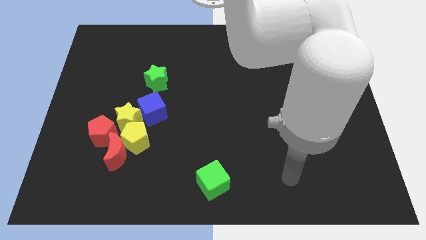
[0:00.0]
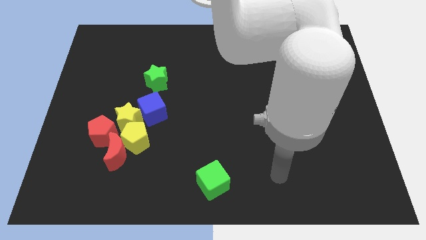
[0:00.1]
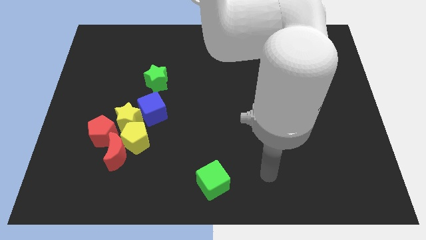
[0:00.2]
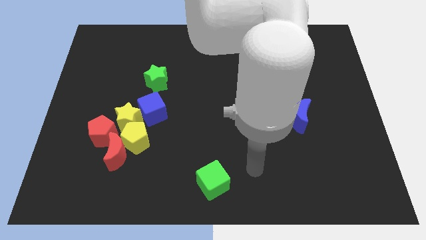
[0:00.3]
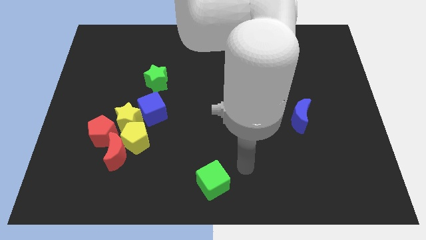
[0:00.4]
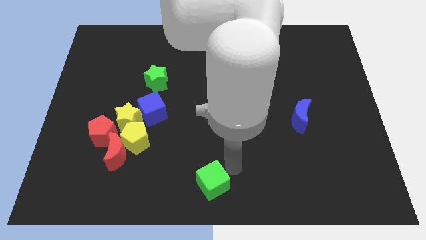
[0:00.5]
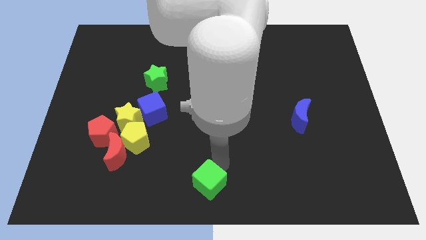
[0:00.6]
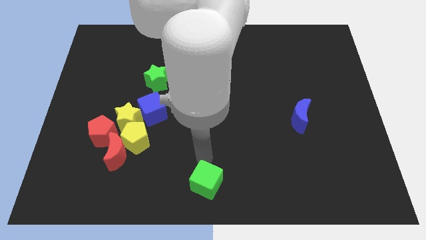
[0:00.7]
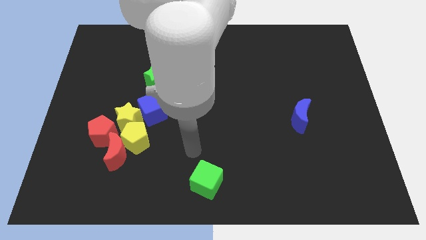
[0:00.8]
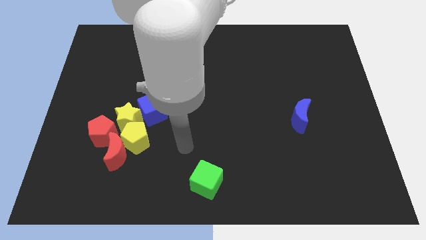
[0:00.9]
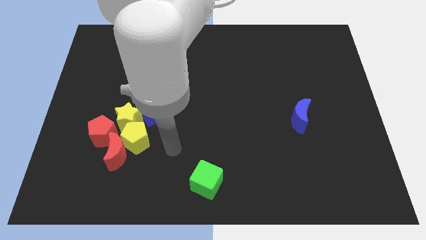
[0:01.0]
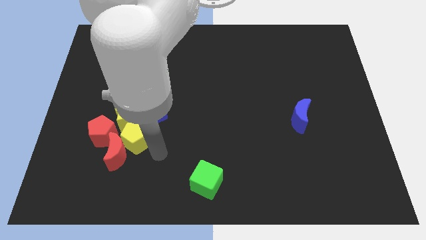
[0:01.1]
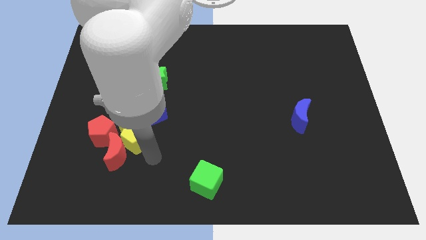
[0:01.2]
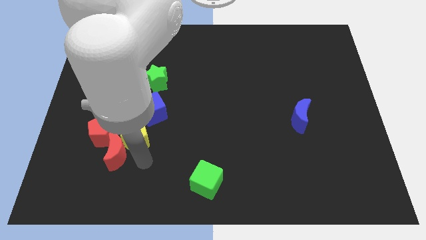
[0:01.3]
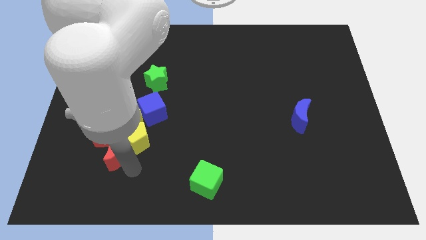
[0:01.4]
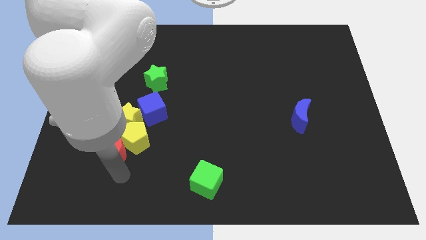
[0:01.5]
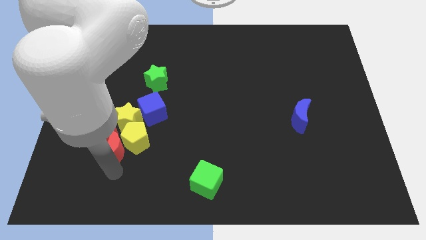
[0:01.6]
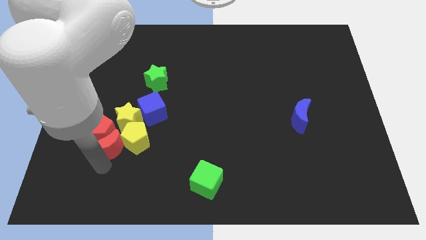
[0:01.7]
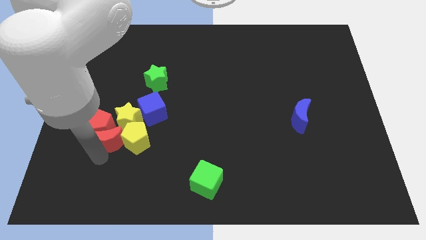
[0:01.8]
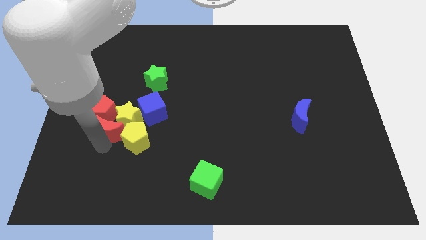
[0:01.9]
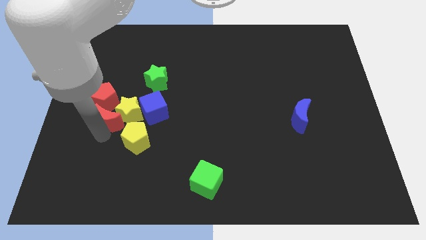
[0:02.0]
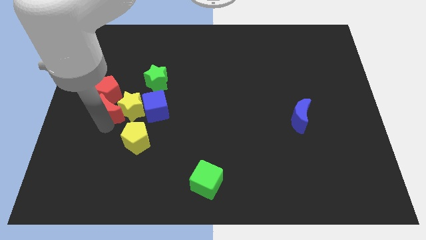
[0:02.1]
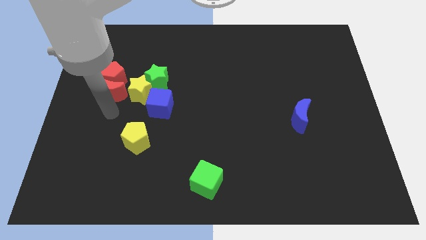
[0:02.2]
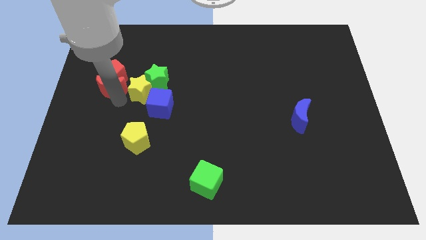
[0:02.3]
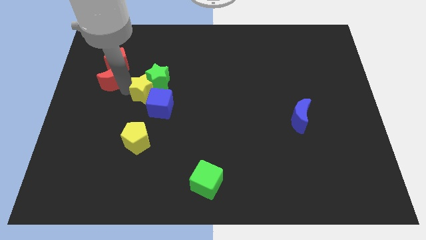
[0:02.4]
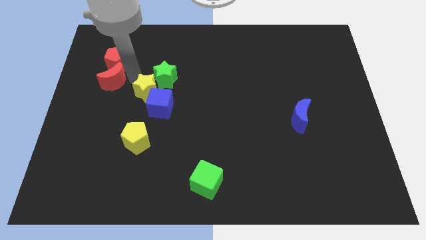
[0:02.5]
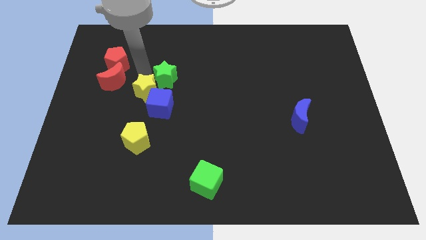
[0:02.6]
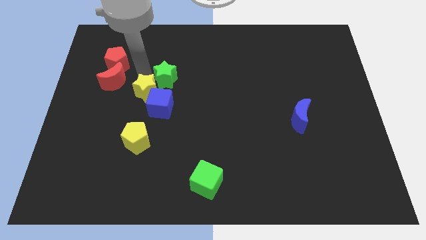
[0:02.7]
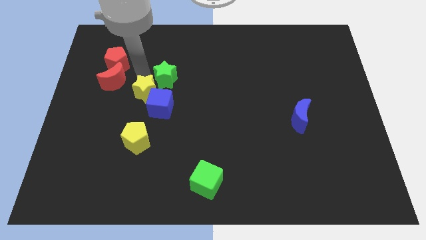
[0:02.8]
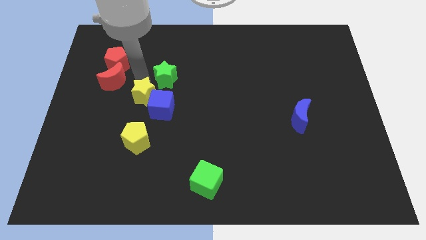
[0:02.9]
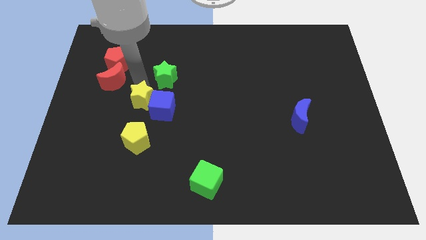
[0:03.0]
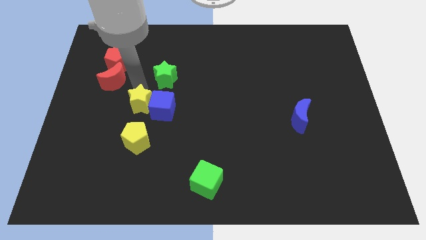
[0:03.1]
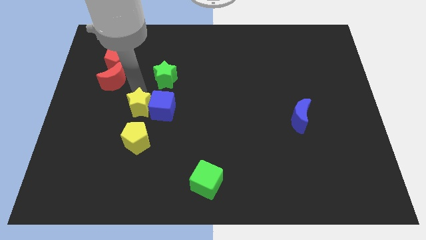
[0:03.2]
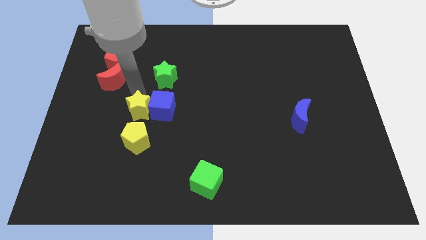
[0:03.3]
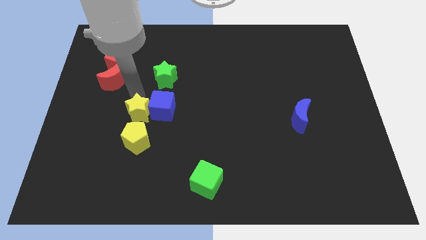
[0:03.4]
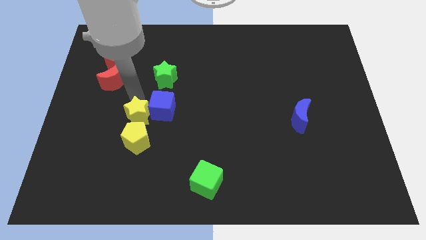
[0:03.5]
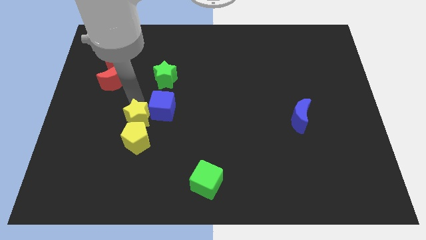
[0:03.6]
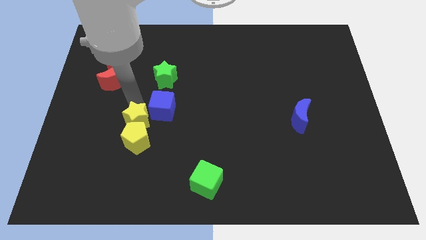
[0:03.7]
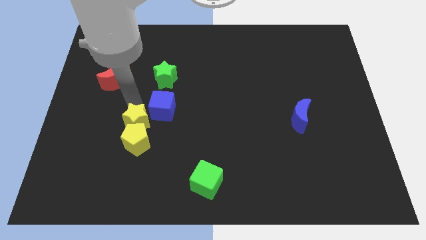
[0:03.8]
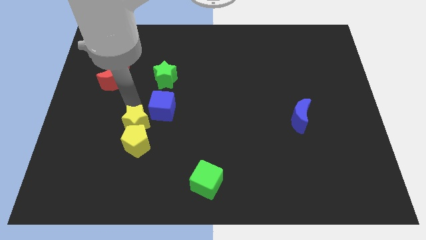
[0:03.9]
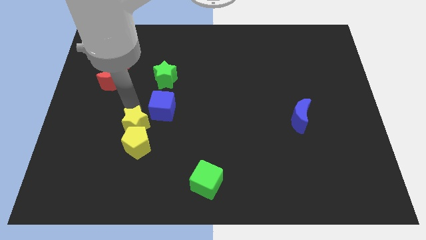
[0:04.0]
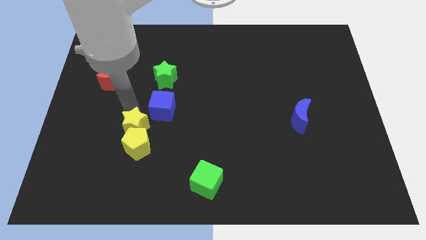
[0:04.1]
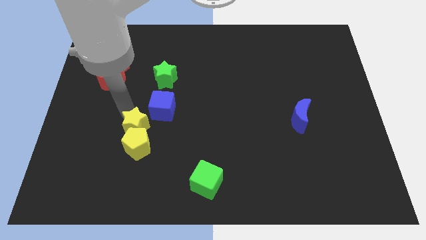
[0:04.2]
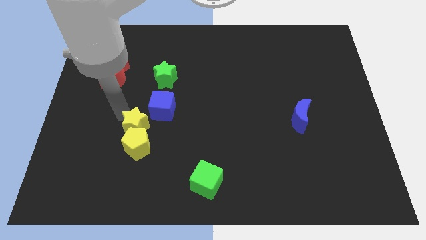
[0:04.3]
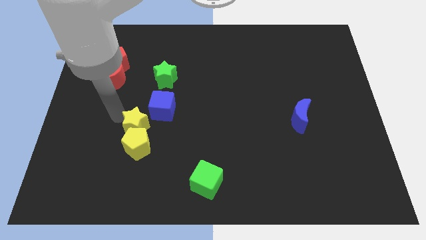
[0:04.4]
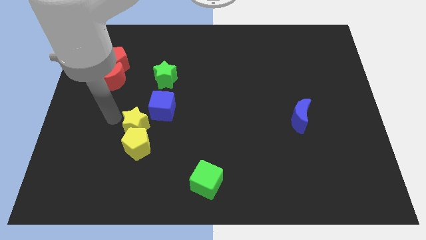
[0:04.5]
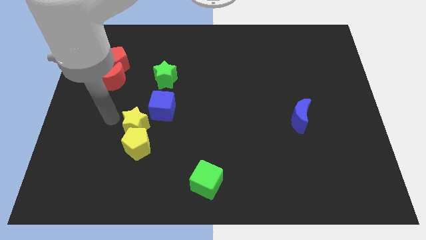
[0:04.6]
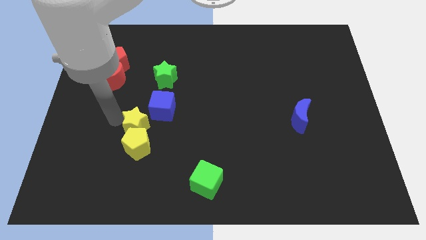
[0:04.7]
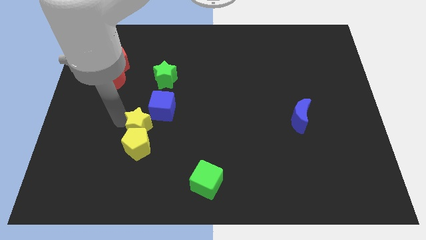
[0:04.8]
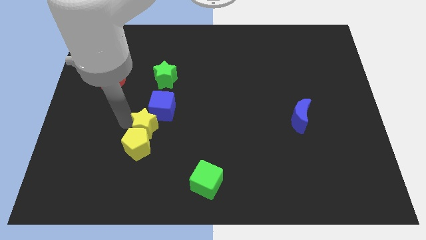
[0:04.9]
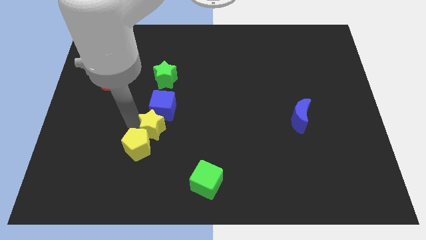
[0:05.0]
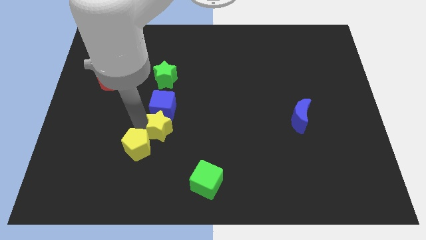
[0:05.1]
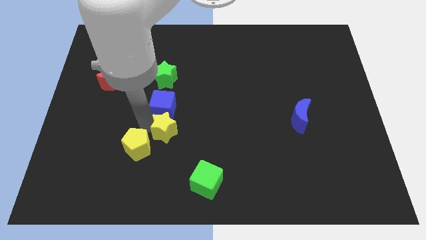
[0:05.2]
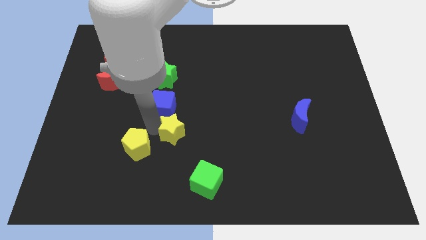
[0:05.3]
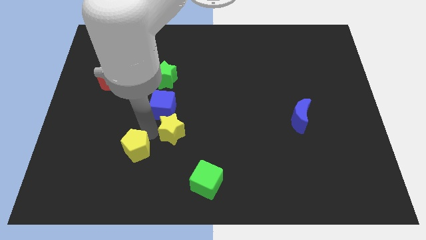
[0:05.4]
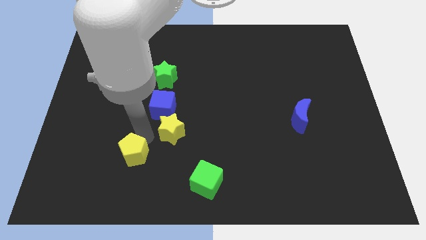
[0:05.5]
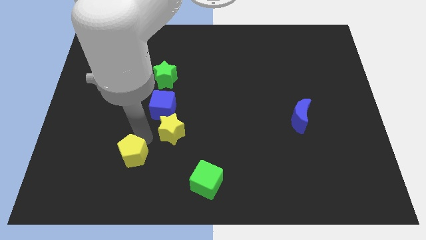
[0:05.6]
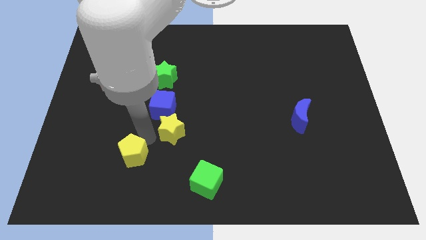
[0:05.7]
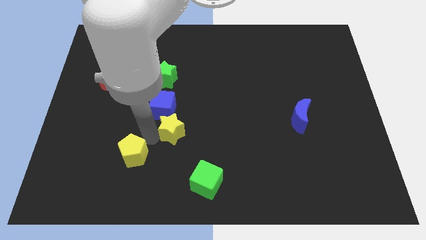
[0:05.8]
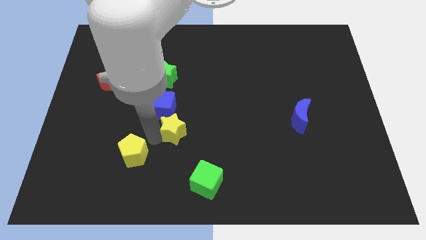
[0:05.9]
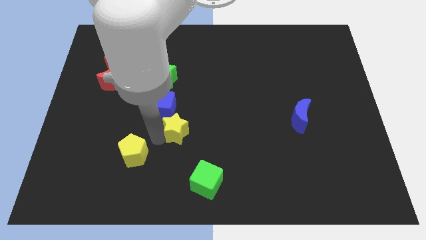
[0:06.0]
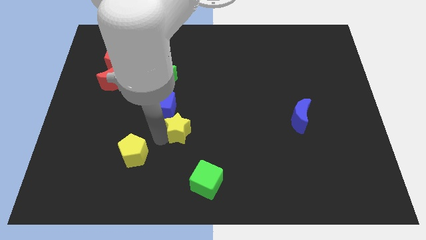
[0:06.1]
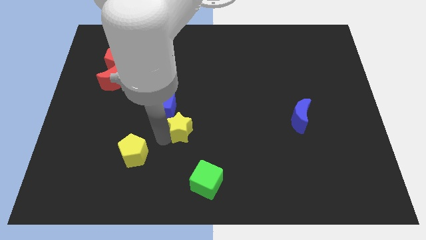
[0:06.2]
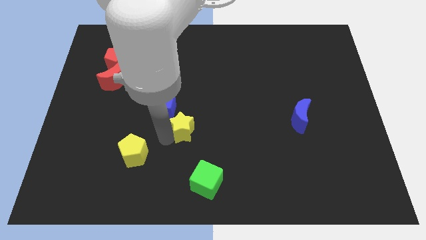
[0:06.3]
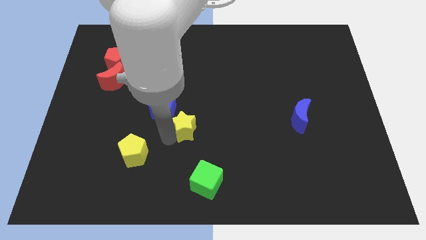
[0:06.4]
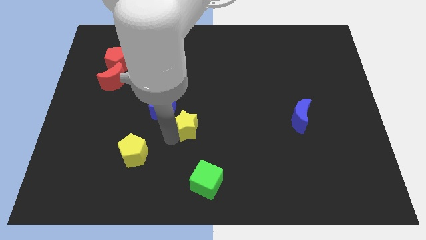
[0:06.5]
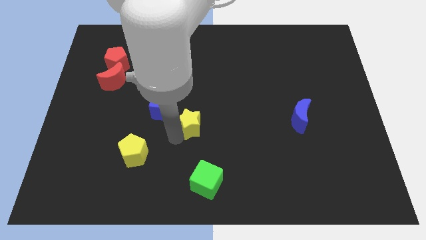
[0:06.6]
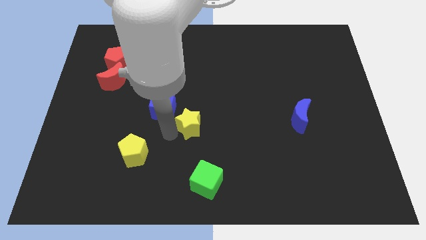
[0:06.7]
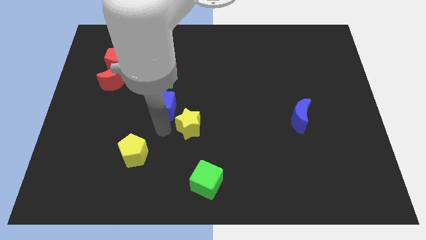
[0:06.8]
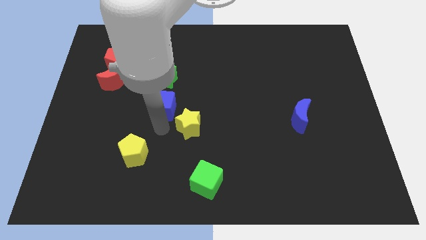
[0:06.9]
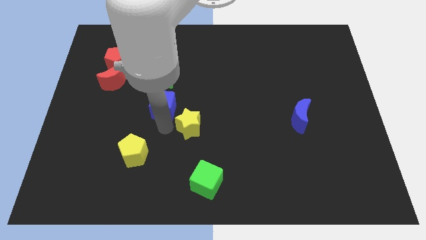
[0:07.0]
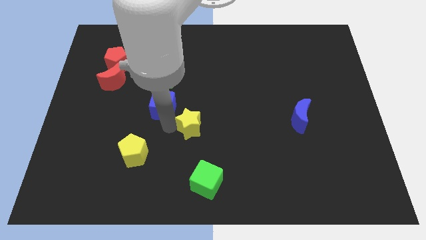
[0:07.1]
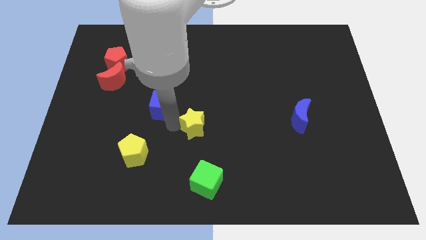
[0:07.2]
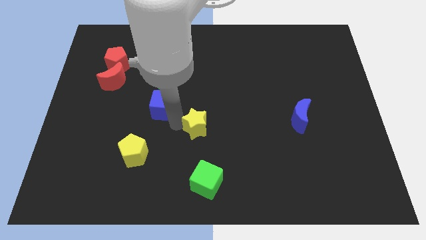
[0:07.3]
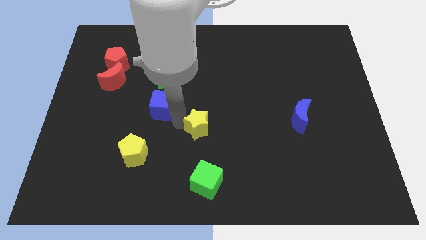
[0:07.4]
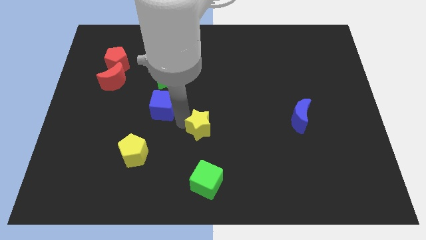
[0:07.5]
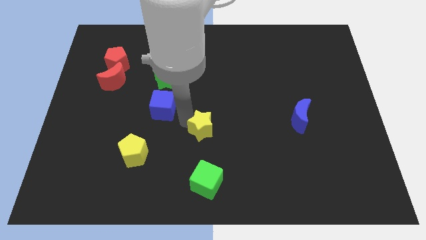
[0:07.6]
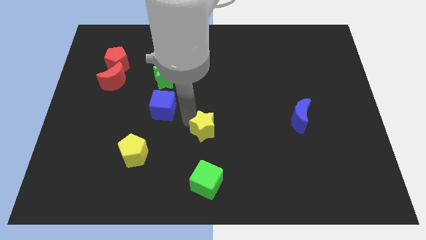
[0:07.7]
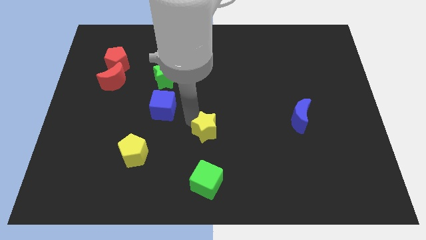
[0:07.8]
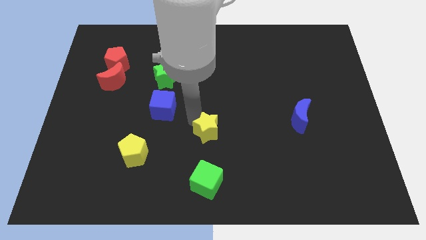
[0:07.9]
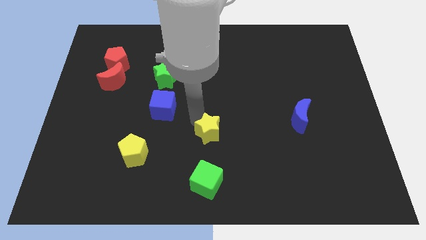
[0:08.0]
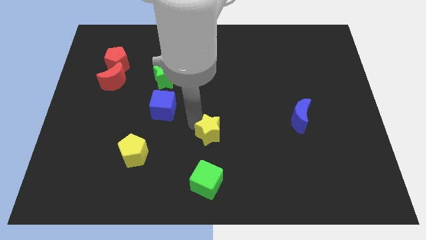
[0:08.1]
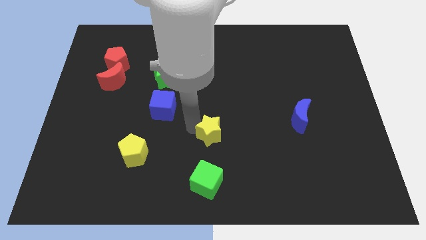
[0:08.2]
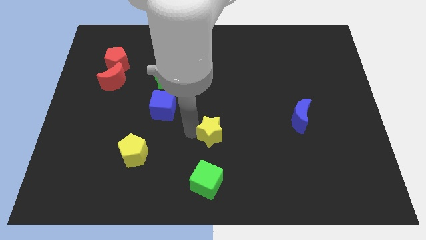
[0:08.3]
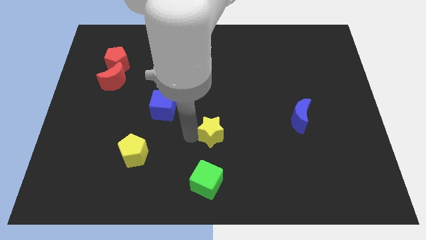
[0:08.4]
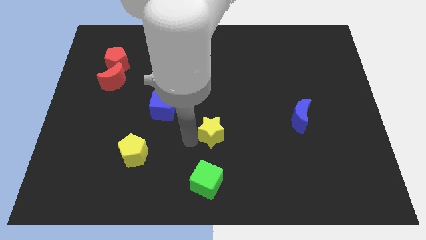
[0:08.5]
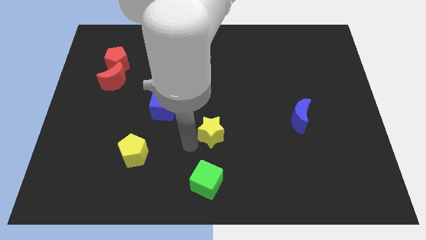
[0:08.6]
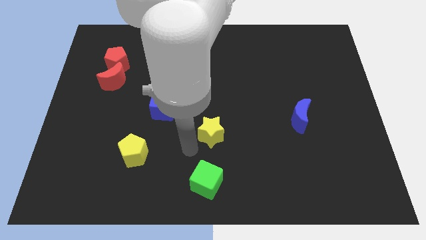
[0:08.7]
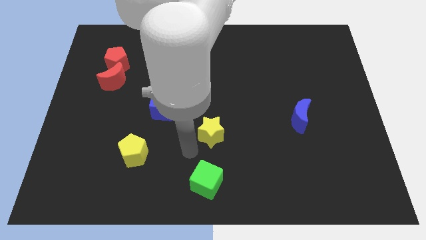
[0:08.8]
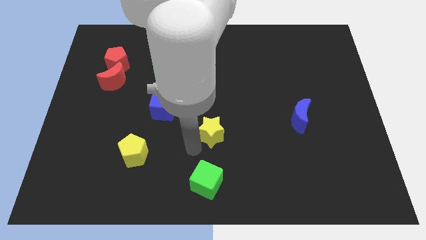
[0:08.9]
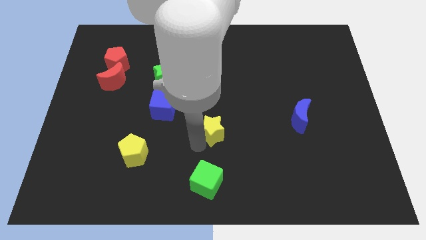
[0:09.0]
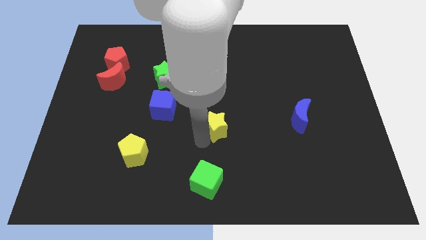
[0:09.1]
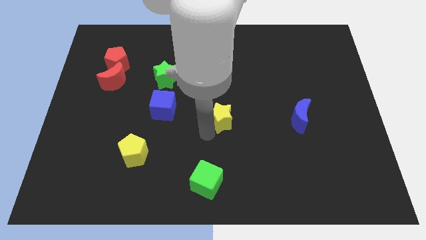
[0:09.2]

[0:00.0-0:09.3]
slide the yellow star to the right
